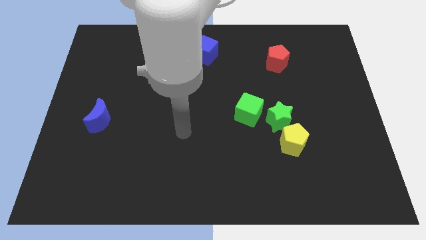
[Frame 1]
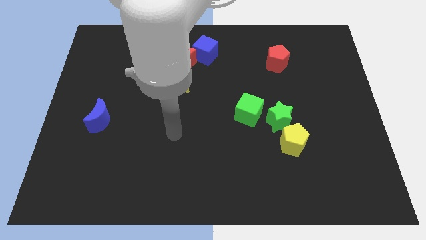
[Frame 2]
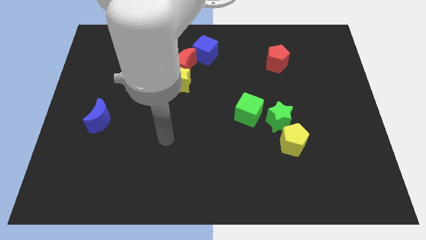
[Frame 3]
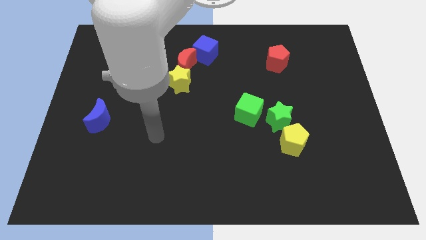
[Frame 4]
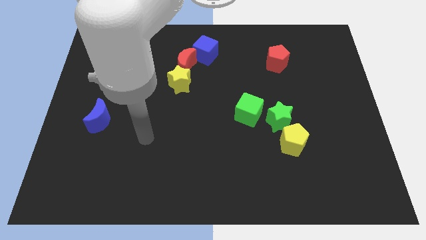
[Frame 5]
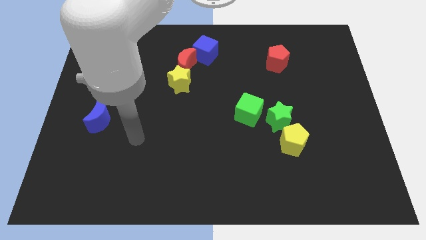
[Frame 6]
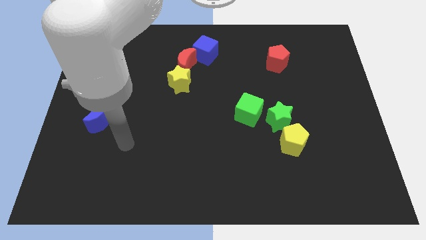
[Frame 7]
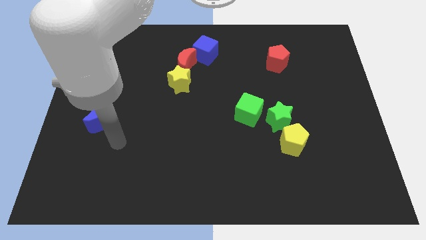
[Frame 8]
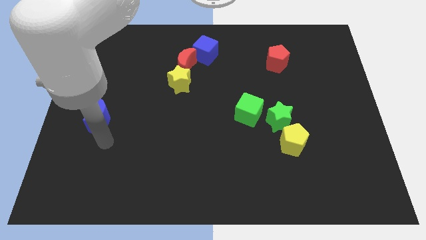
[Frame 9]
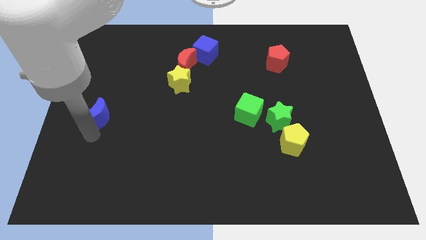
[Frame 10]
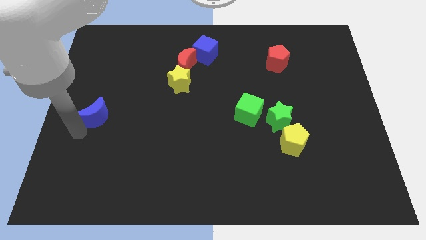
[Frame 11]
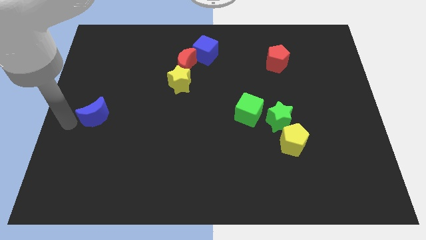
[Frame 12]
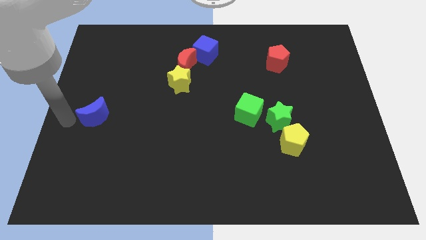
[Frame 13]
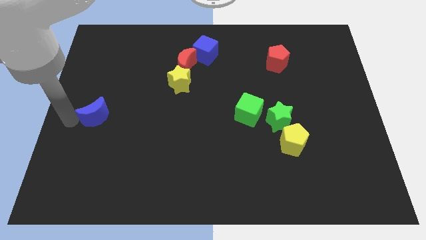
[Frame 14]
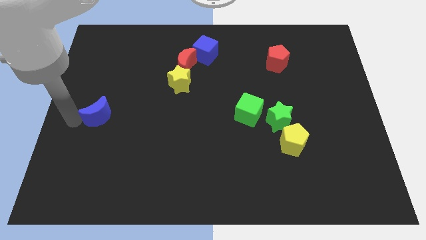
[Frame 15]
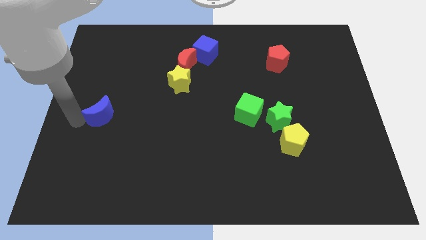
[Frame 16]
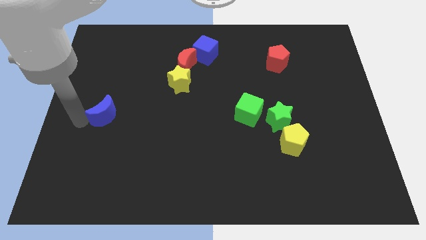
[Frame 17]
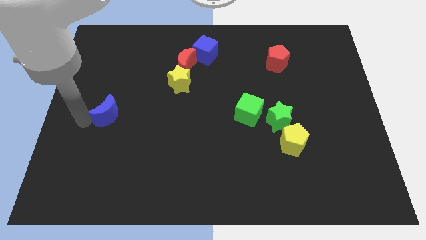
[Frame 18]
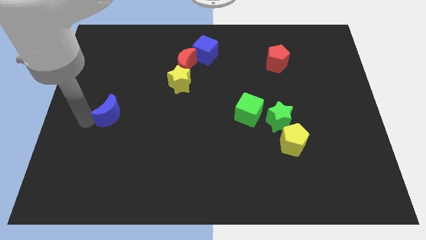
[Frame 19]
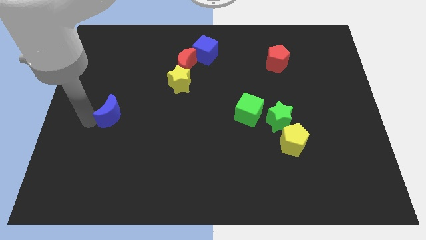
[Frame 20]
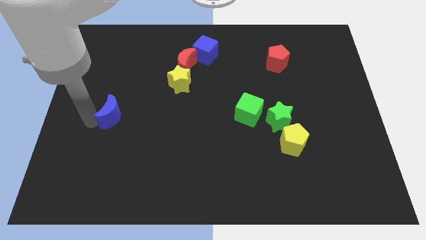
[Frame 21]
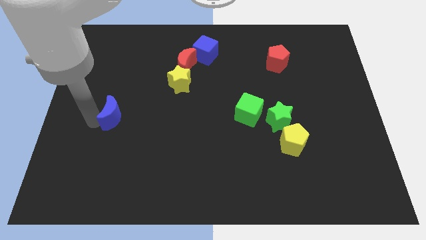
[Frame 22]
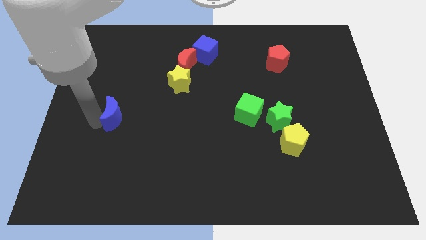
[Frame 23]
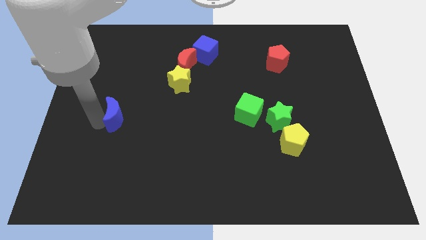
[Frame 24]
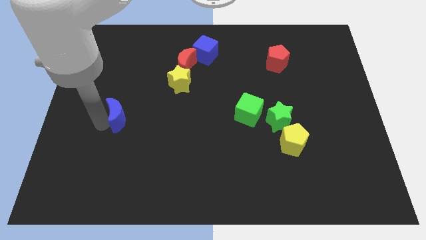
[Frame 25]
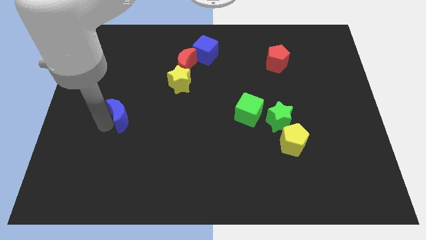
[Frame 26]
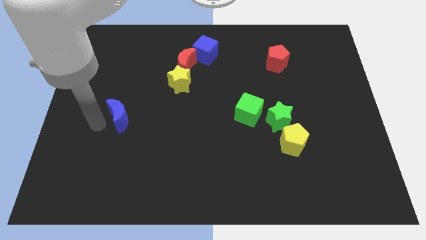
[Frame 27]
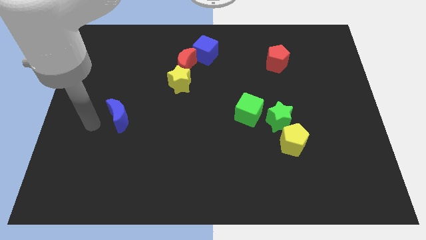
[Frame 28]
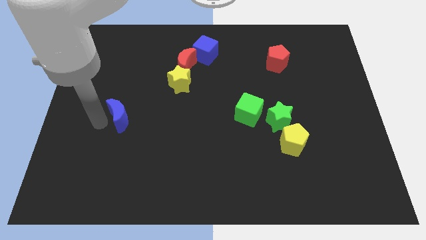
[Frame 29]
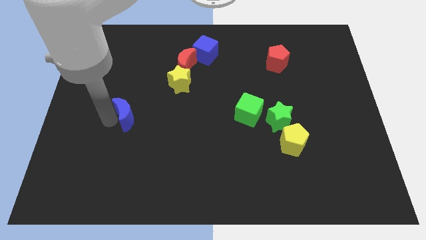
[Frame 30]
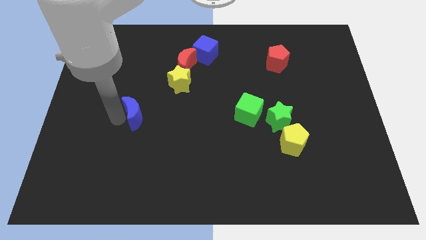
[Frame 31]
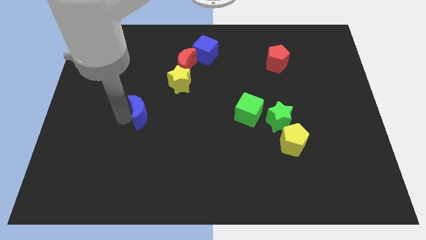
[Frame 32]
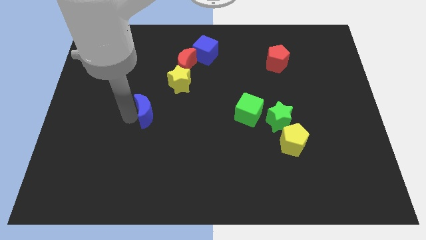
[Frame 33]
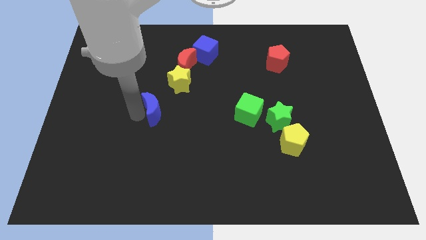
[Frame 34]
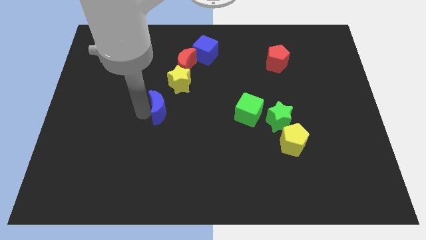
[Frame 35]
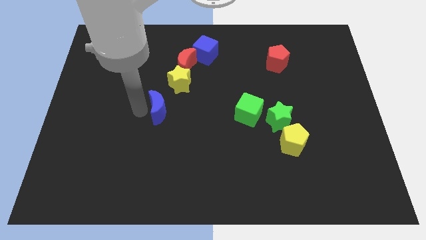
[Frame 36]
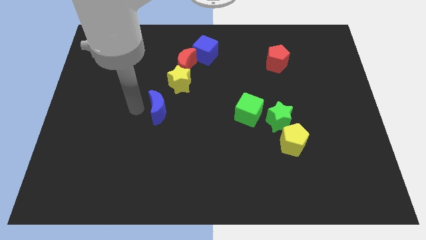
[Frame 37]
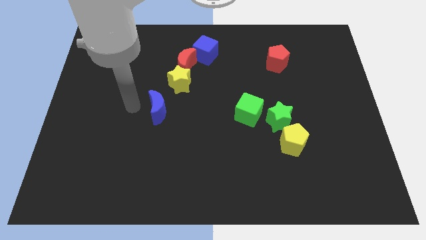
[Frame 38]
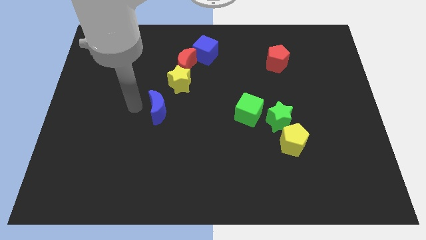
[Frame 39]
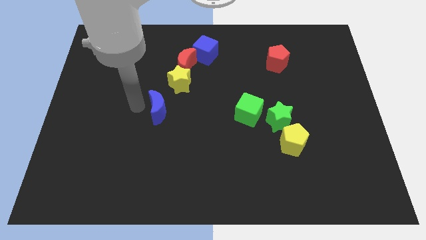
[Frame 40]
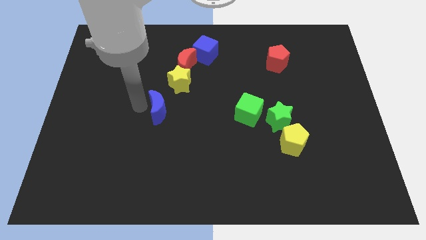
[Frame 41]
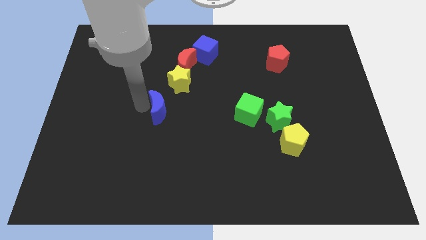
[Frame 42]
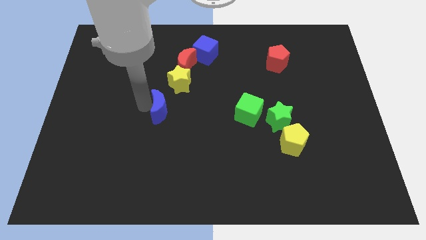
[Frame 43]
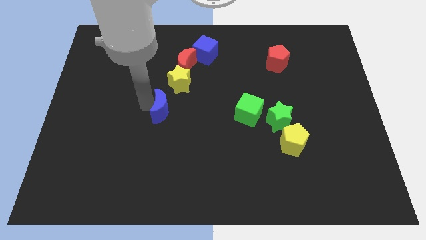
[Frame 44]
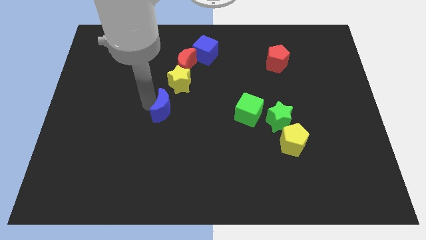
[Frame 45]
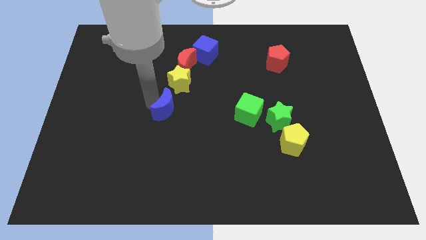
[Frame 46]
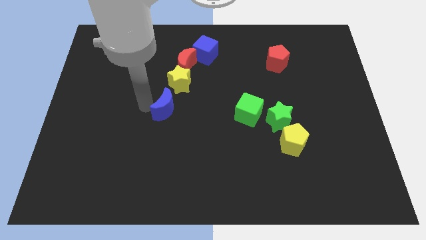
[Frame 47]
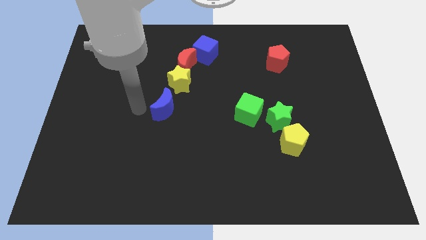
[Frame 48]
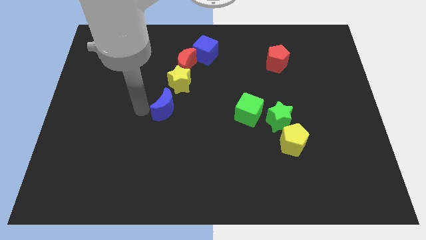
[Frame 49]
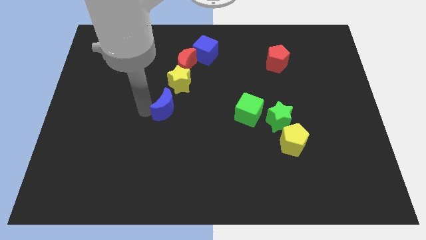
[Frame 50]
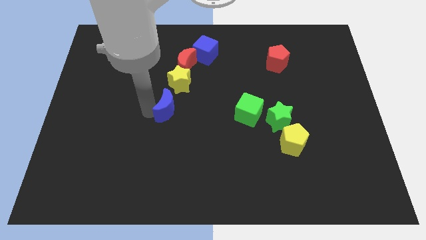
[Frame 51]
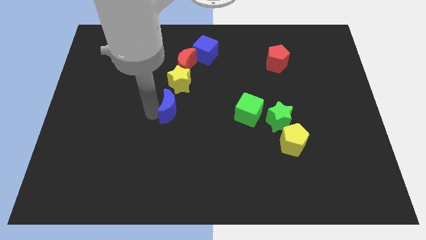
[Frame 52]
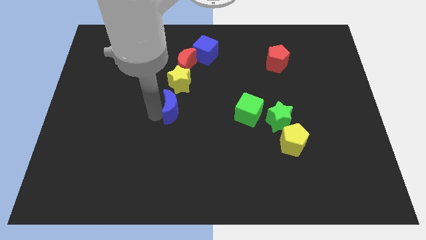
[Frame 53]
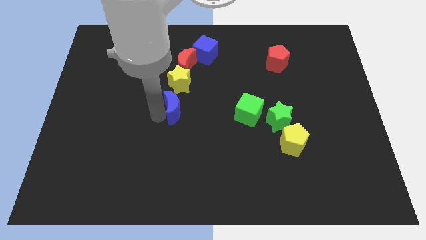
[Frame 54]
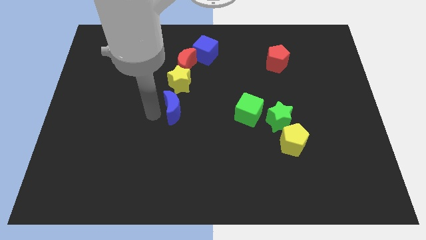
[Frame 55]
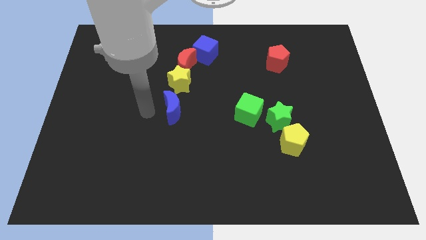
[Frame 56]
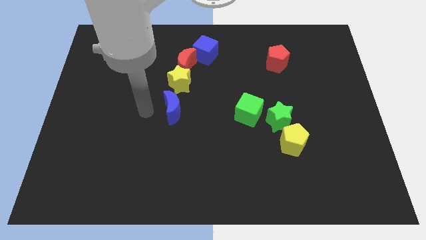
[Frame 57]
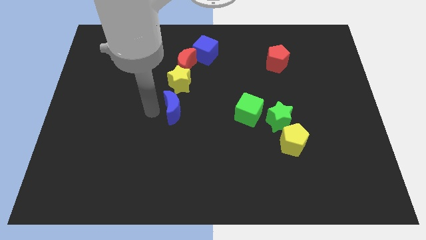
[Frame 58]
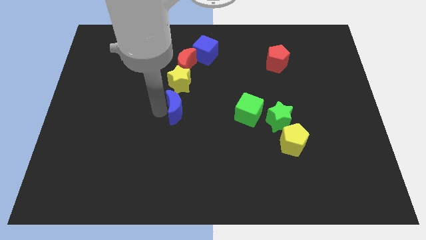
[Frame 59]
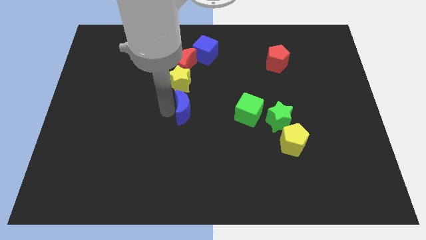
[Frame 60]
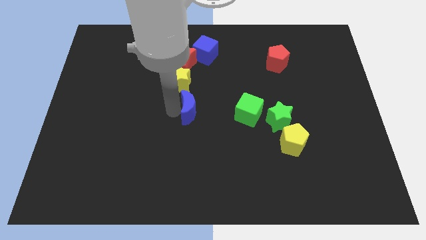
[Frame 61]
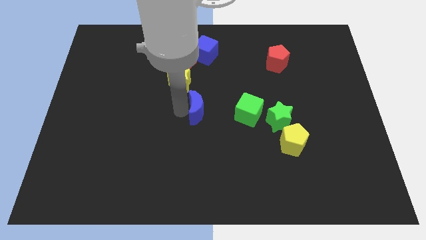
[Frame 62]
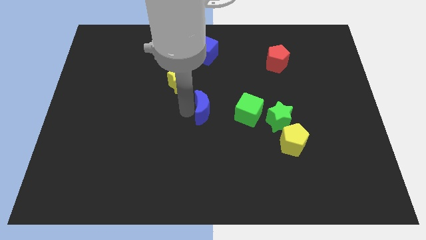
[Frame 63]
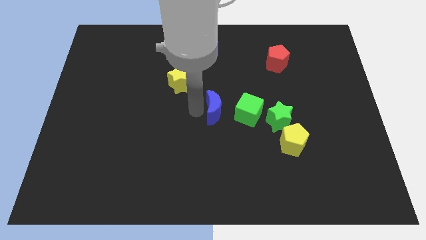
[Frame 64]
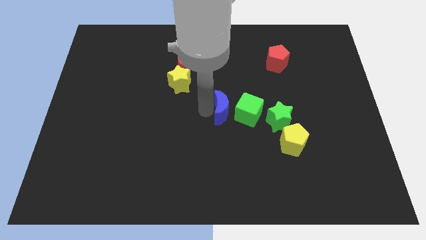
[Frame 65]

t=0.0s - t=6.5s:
slide the blue moon towards the green cube

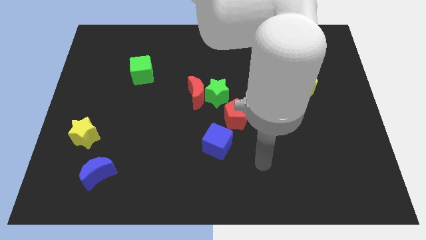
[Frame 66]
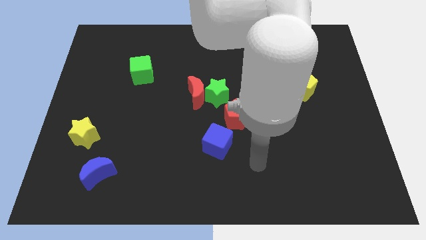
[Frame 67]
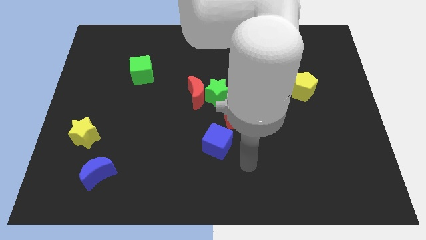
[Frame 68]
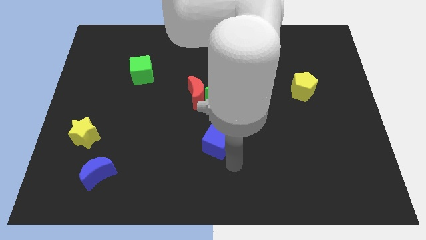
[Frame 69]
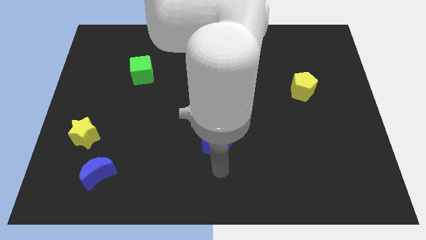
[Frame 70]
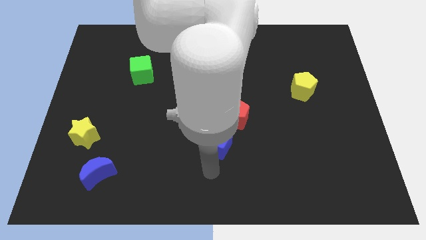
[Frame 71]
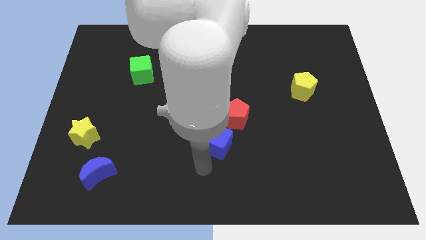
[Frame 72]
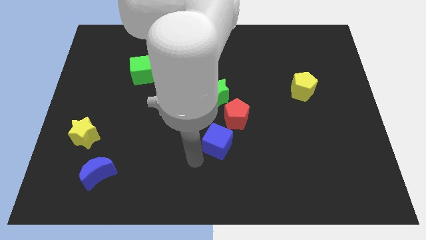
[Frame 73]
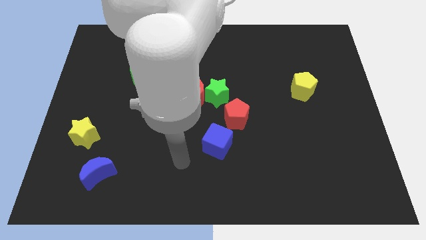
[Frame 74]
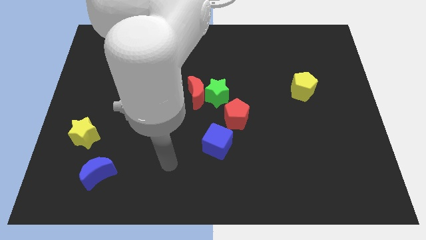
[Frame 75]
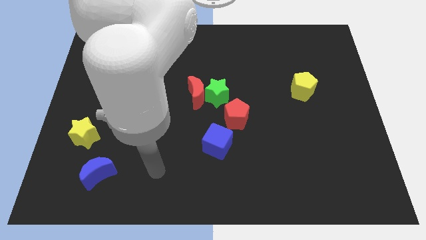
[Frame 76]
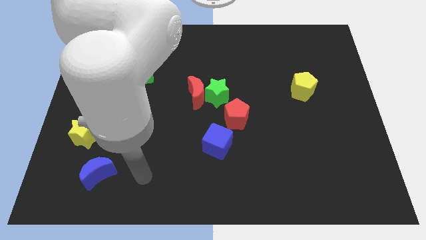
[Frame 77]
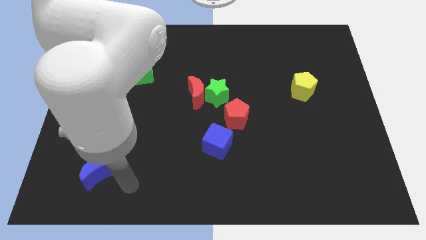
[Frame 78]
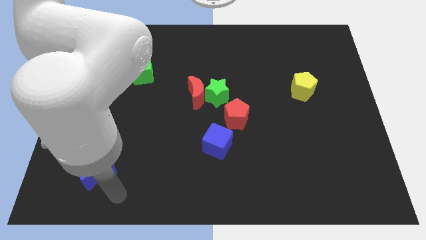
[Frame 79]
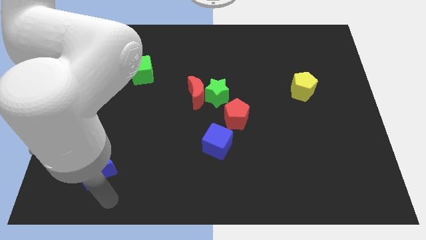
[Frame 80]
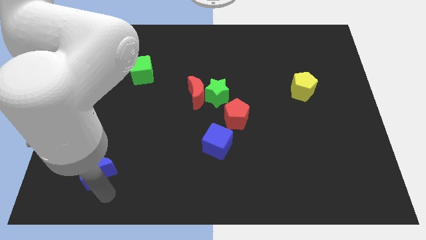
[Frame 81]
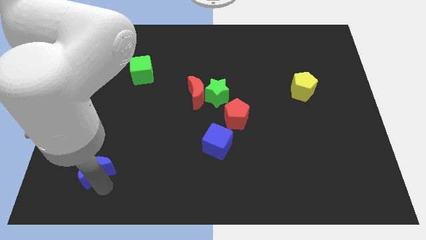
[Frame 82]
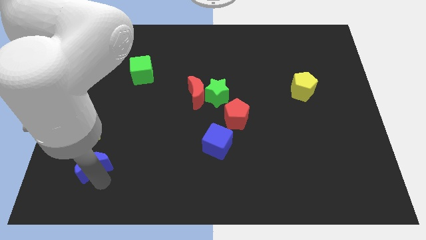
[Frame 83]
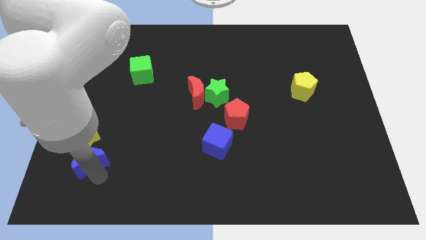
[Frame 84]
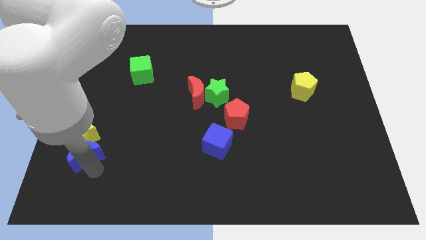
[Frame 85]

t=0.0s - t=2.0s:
push the blue moon towards the yellow star
